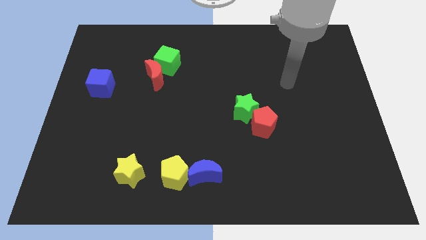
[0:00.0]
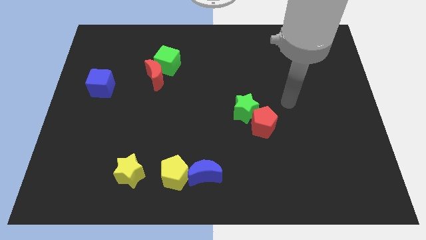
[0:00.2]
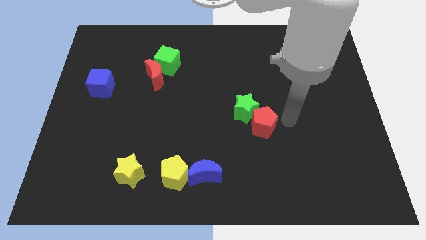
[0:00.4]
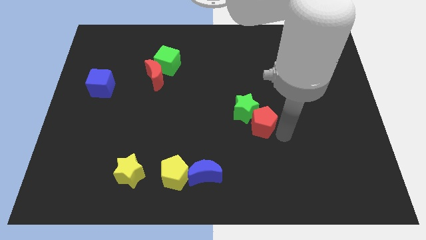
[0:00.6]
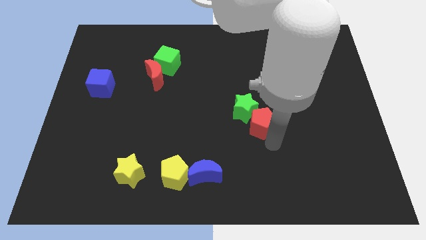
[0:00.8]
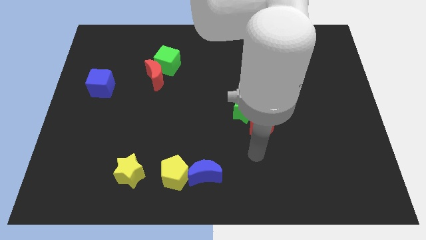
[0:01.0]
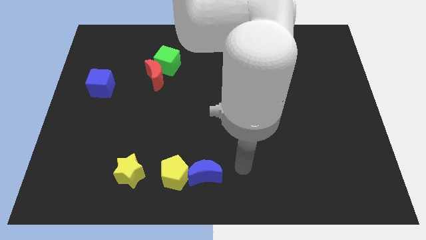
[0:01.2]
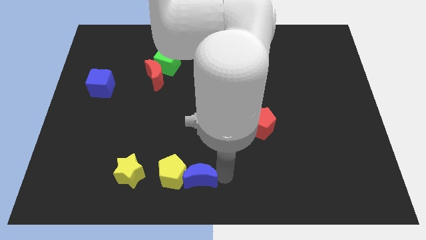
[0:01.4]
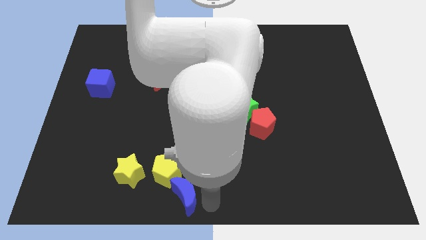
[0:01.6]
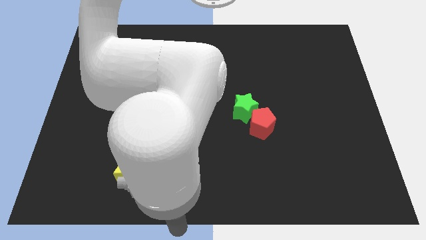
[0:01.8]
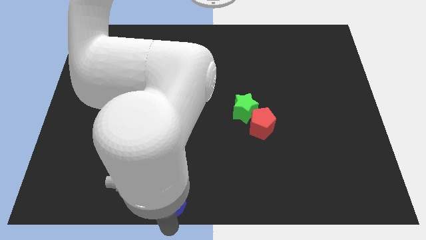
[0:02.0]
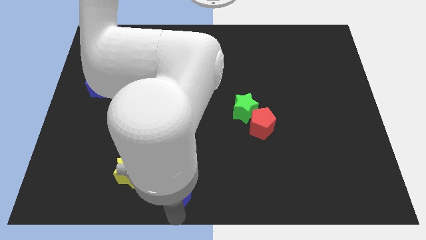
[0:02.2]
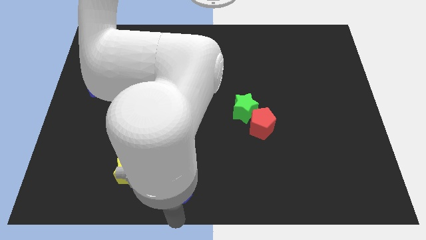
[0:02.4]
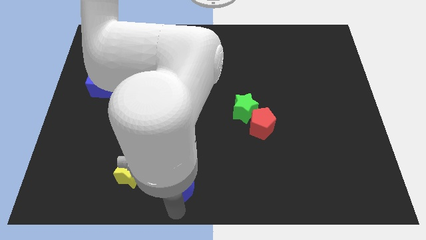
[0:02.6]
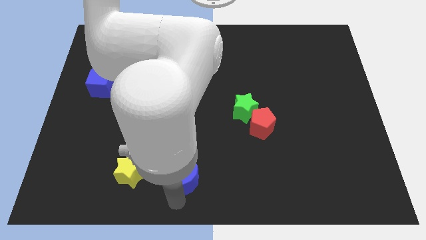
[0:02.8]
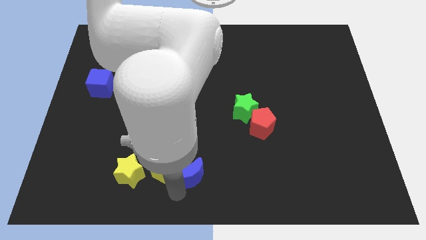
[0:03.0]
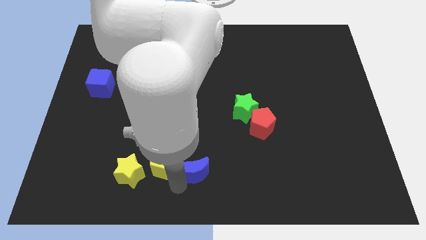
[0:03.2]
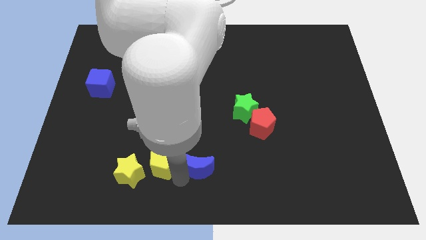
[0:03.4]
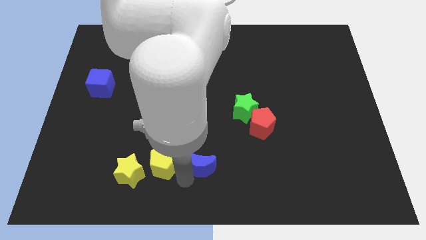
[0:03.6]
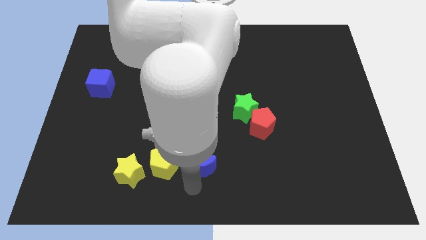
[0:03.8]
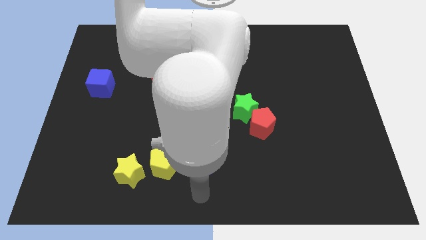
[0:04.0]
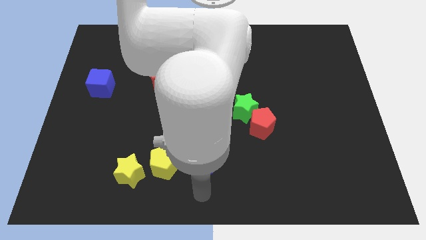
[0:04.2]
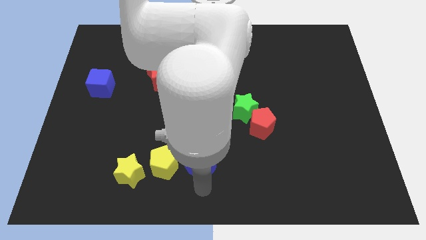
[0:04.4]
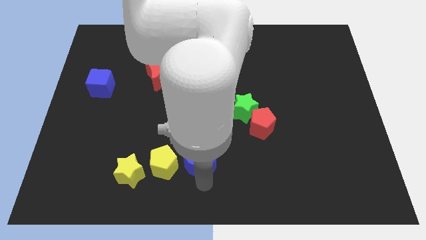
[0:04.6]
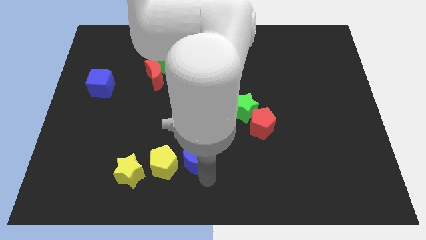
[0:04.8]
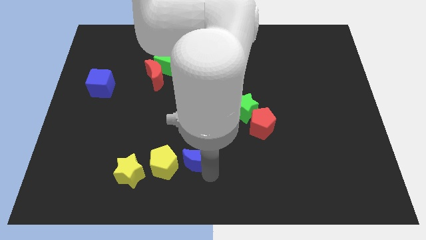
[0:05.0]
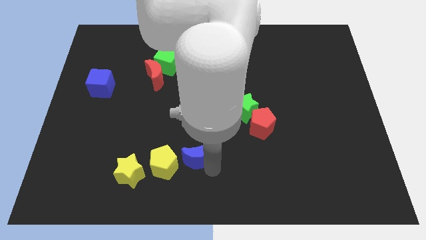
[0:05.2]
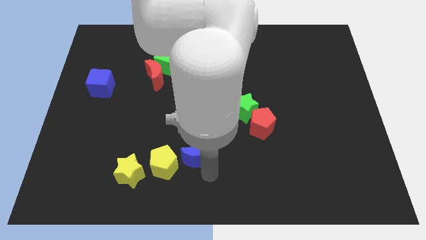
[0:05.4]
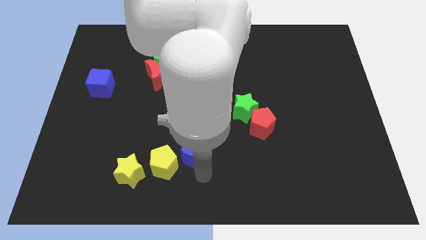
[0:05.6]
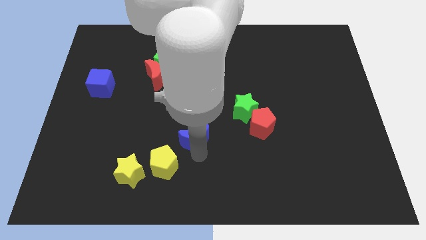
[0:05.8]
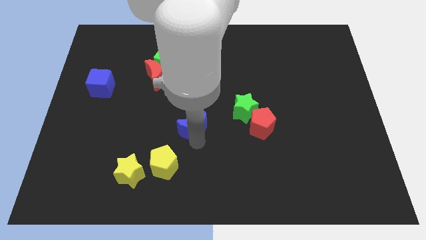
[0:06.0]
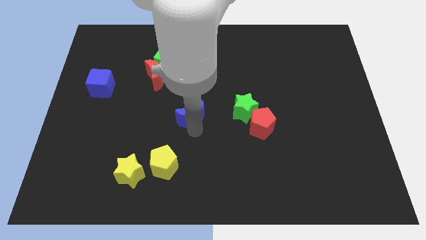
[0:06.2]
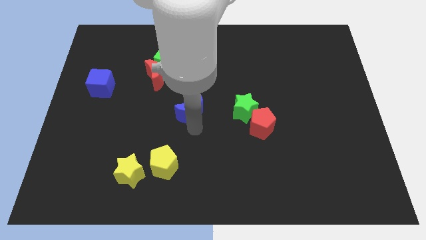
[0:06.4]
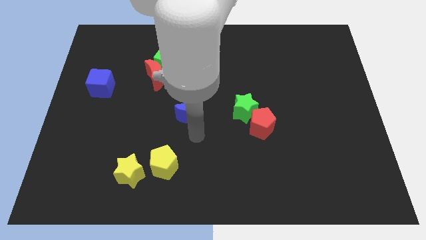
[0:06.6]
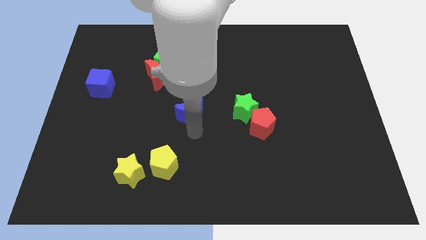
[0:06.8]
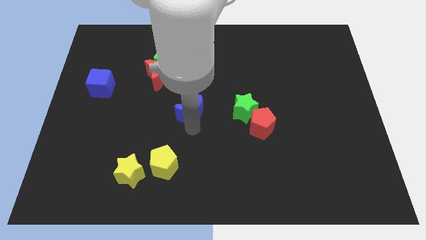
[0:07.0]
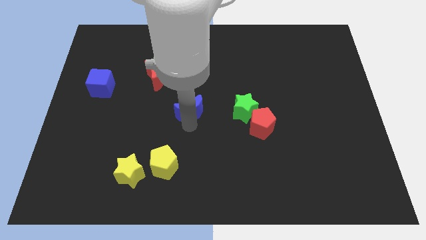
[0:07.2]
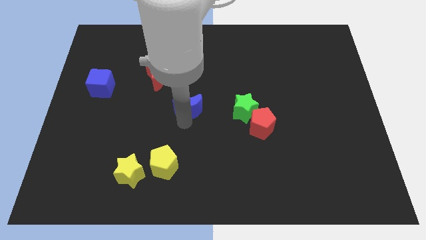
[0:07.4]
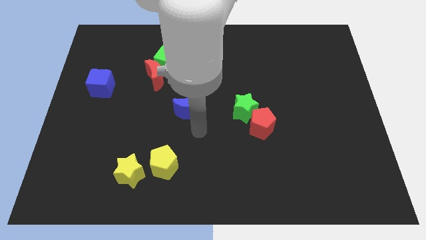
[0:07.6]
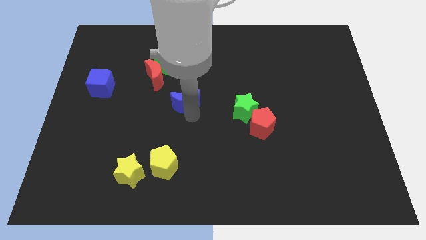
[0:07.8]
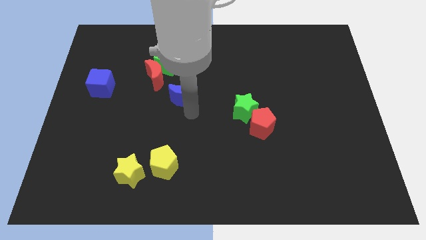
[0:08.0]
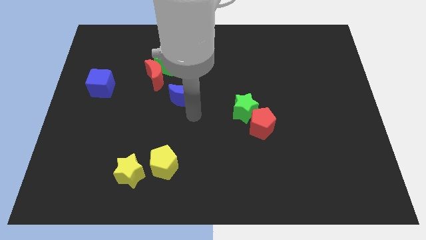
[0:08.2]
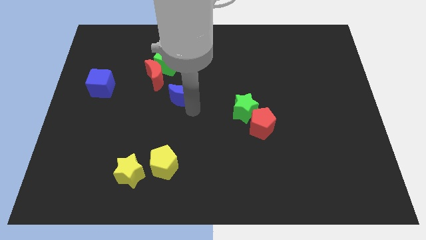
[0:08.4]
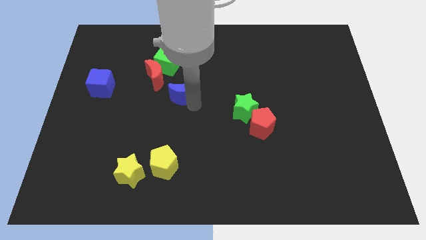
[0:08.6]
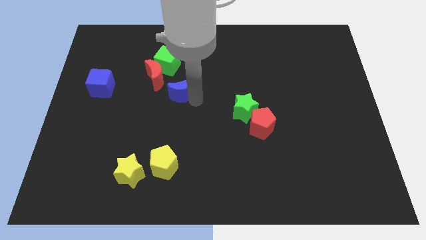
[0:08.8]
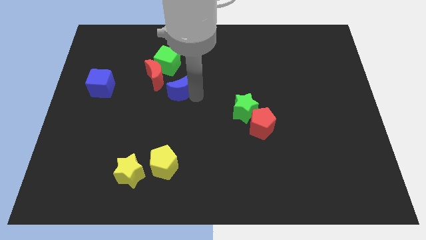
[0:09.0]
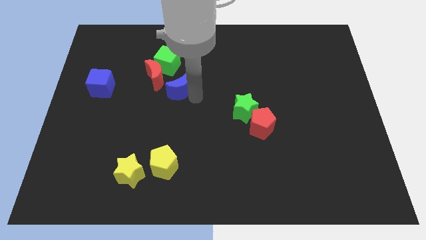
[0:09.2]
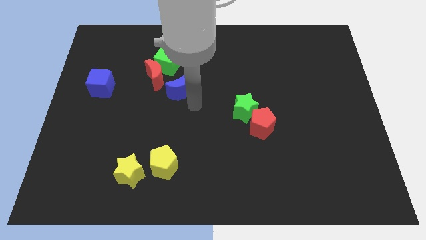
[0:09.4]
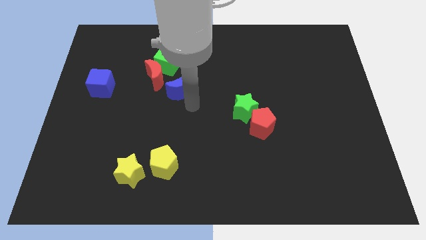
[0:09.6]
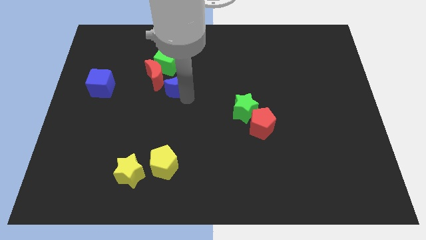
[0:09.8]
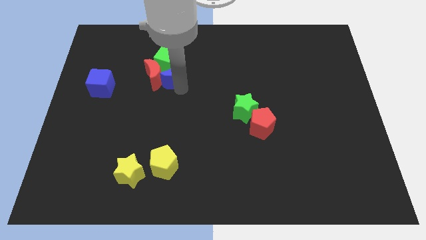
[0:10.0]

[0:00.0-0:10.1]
move the blue moon next to the green cube

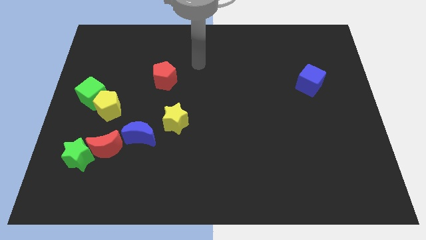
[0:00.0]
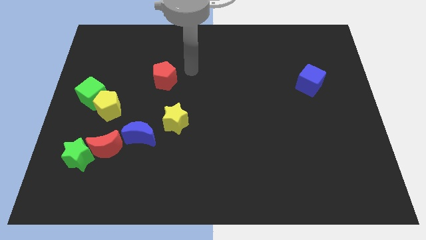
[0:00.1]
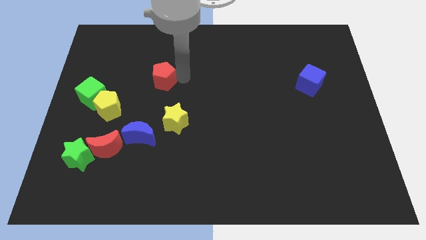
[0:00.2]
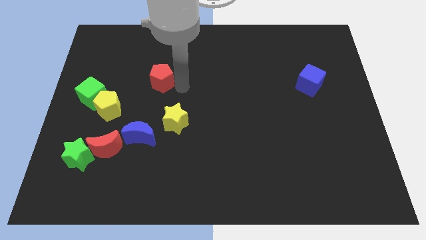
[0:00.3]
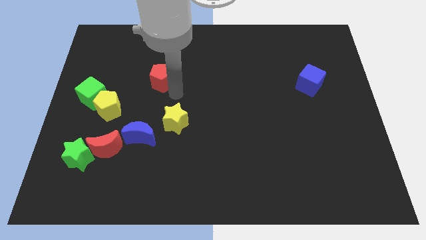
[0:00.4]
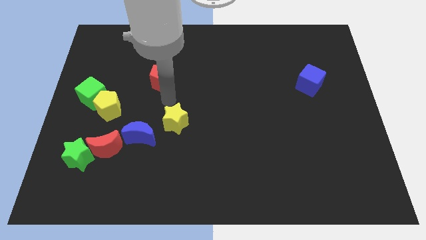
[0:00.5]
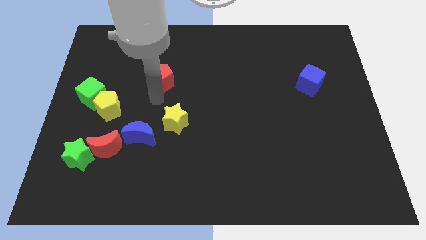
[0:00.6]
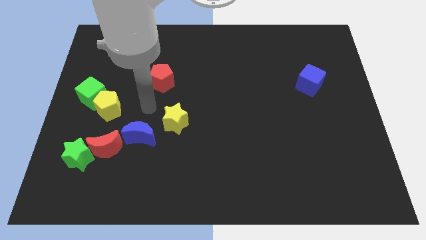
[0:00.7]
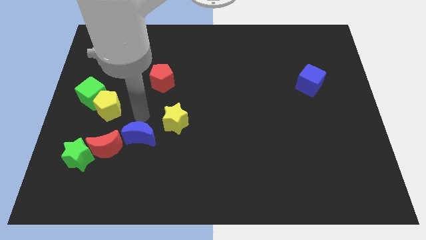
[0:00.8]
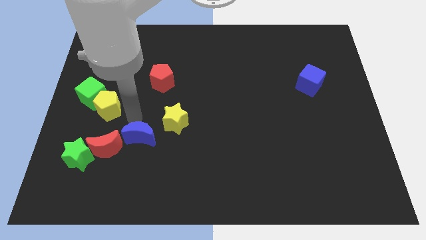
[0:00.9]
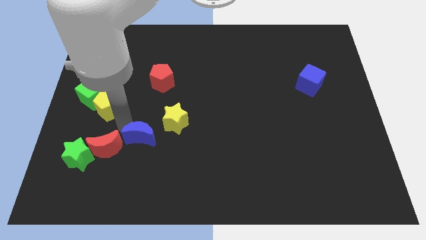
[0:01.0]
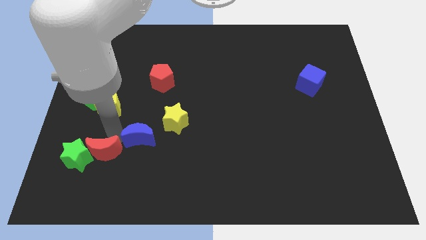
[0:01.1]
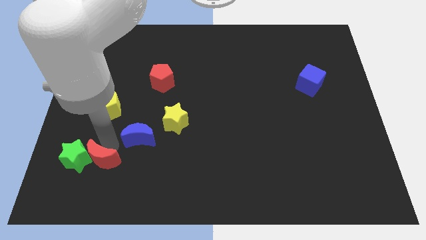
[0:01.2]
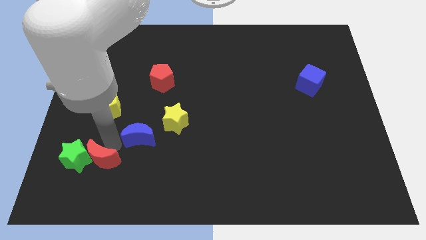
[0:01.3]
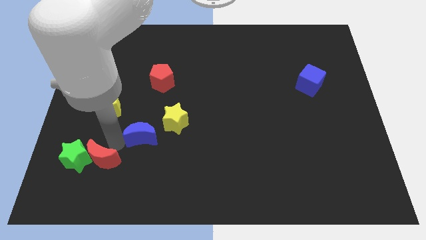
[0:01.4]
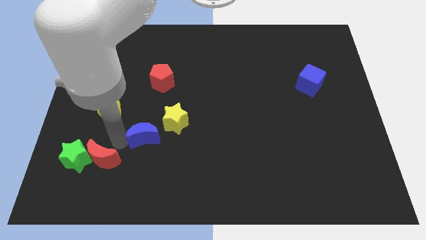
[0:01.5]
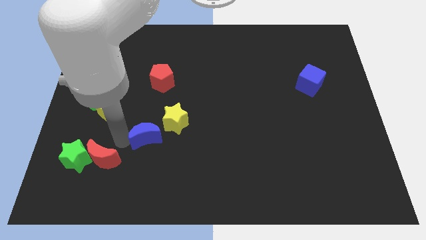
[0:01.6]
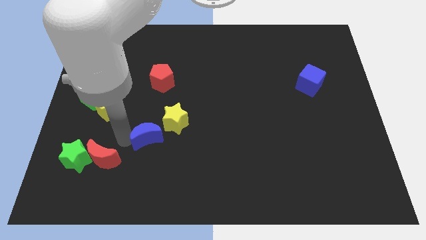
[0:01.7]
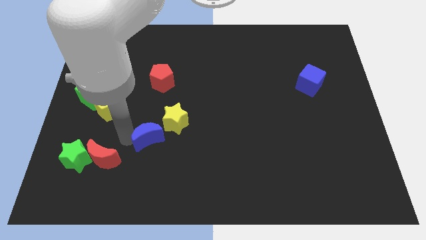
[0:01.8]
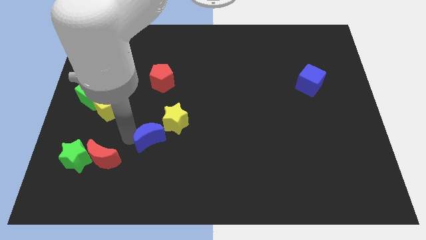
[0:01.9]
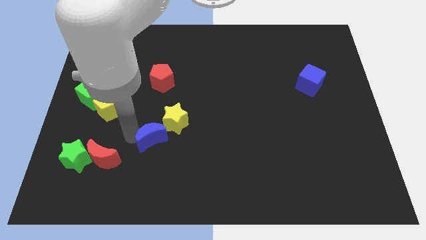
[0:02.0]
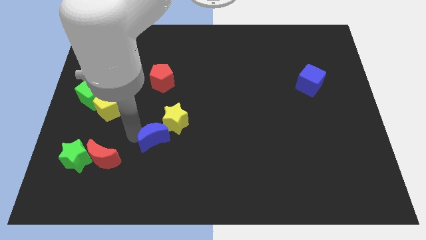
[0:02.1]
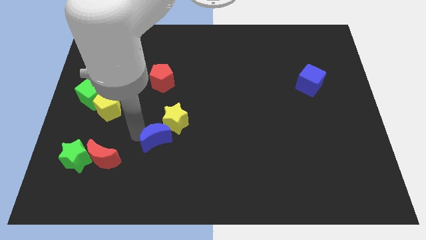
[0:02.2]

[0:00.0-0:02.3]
slide the blue moon next to the yellow star
